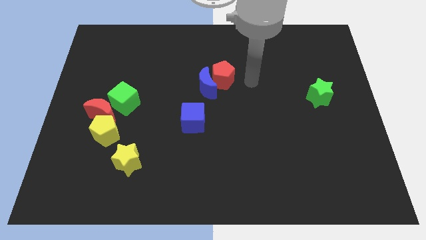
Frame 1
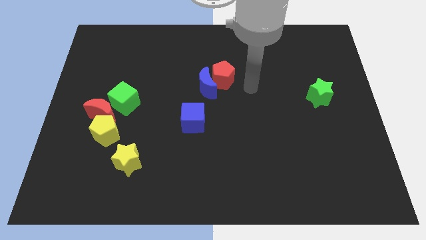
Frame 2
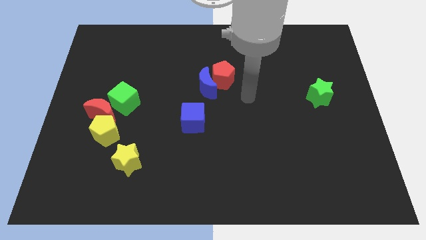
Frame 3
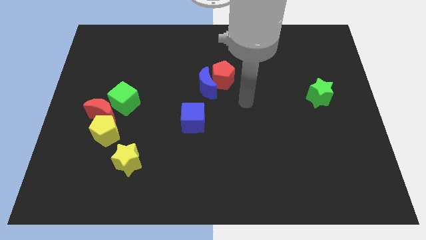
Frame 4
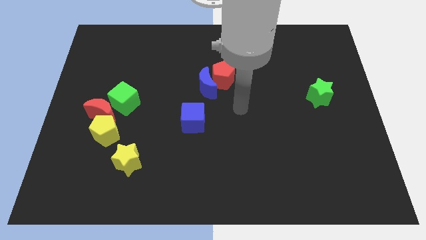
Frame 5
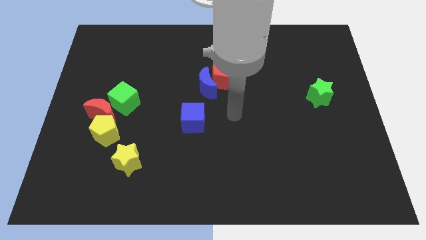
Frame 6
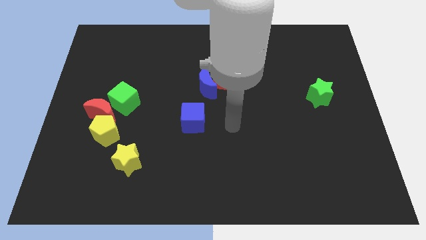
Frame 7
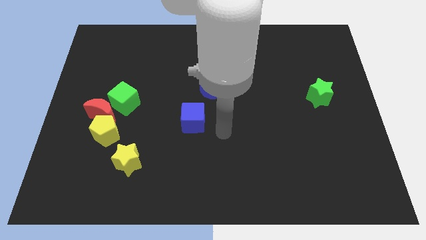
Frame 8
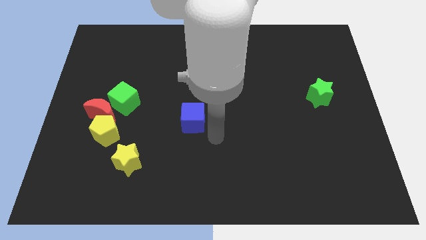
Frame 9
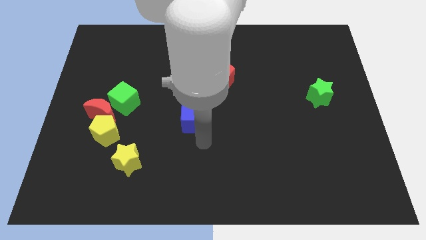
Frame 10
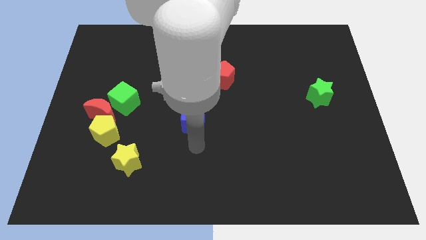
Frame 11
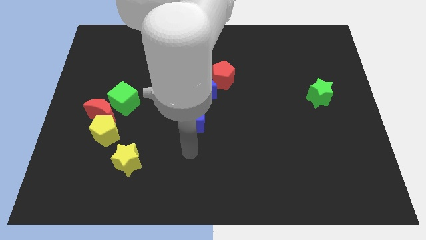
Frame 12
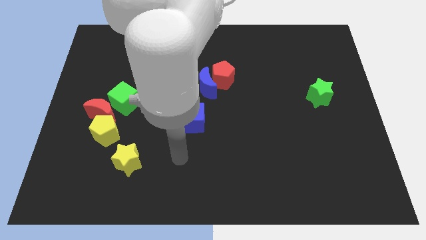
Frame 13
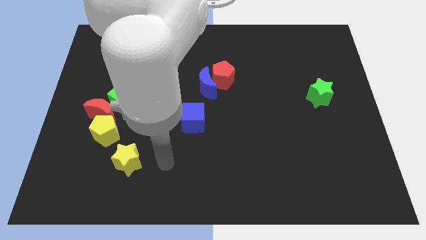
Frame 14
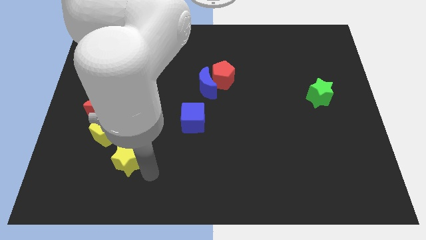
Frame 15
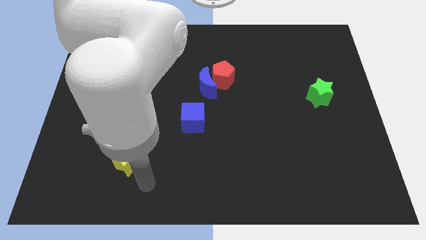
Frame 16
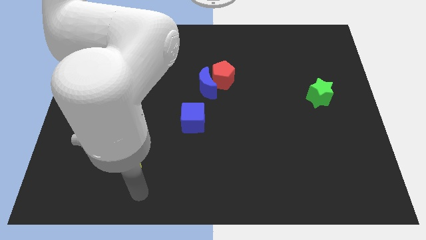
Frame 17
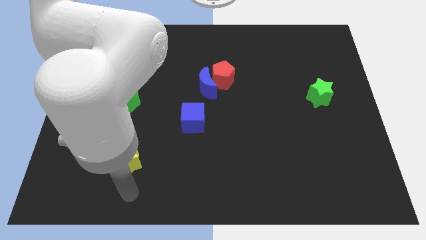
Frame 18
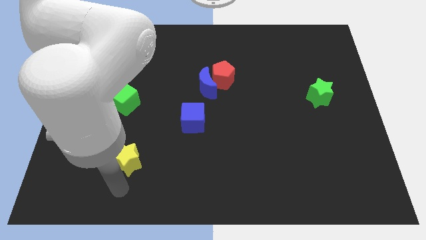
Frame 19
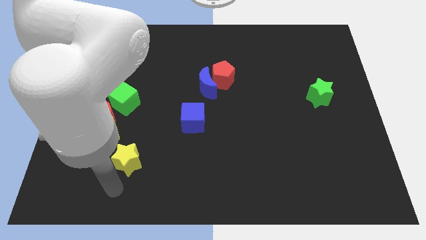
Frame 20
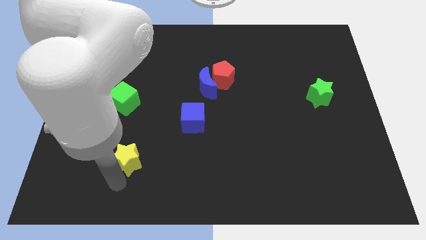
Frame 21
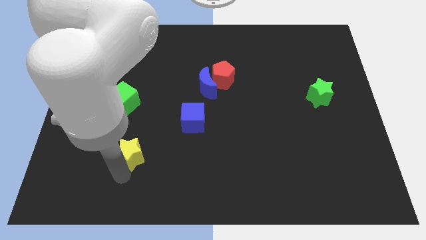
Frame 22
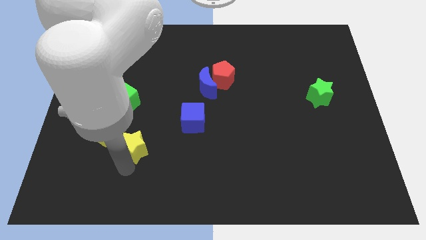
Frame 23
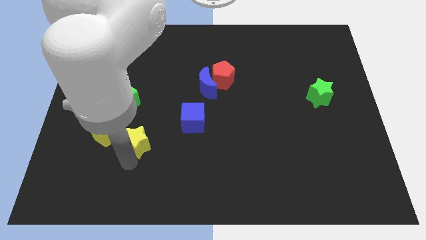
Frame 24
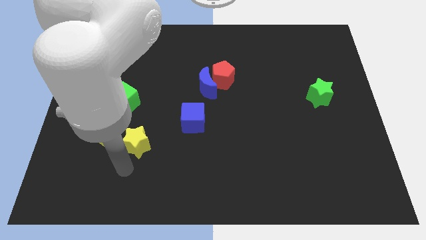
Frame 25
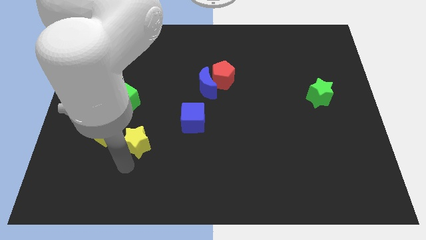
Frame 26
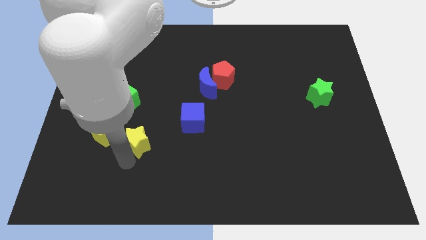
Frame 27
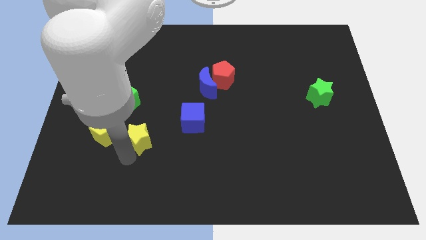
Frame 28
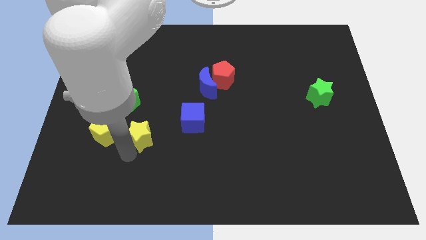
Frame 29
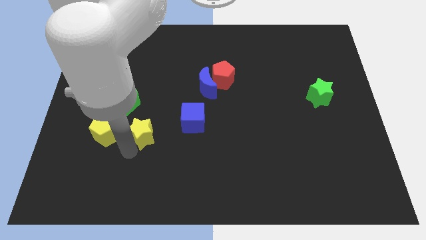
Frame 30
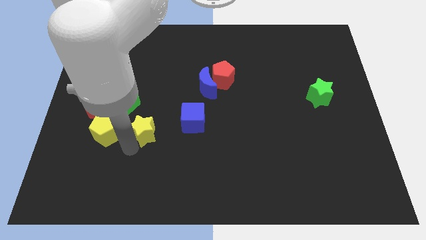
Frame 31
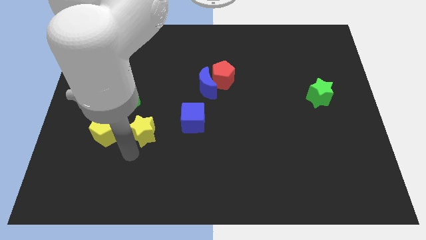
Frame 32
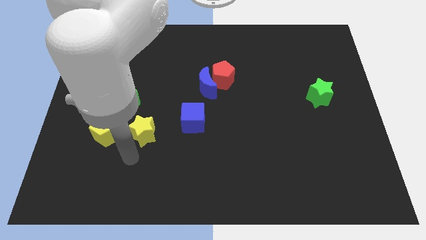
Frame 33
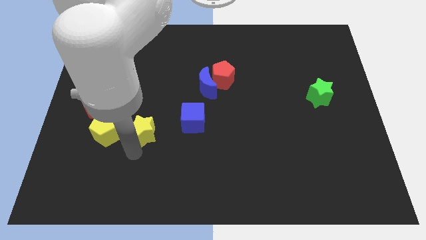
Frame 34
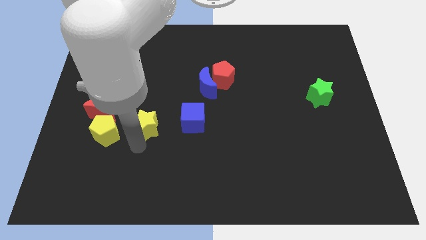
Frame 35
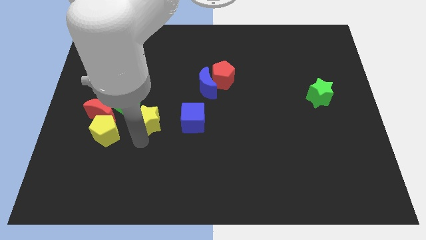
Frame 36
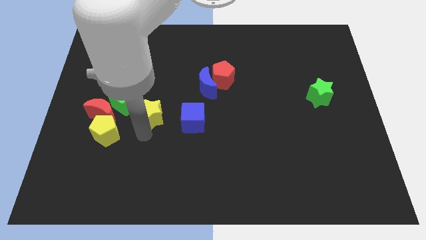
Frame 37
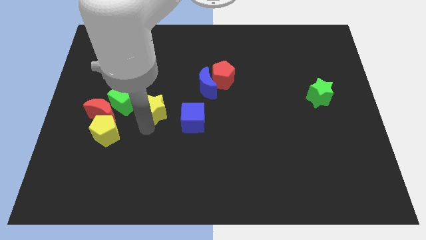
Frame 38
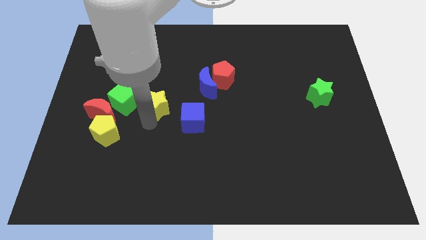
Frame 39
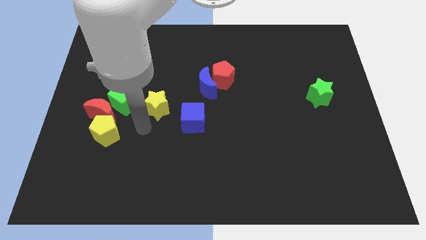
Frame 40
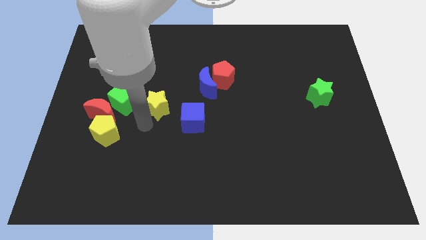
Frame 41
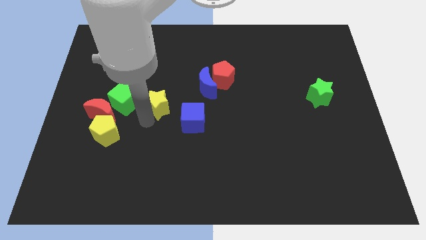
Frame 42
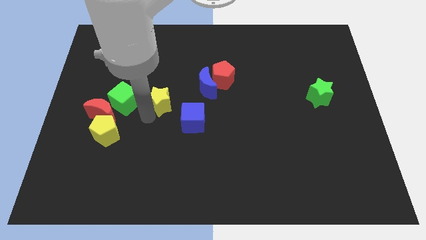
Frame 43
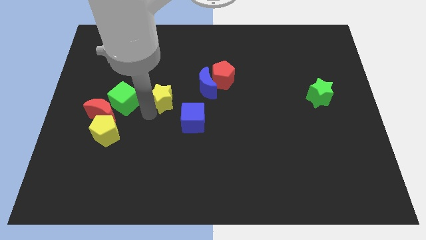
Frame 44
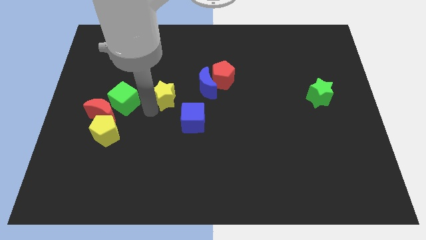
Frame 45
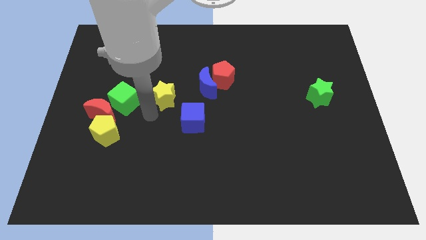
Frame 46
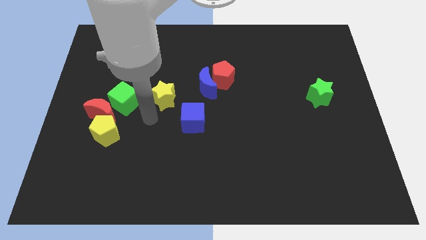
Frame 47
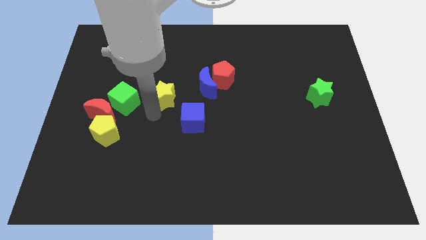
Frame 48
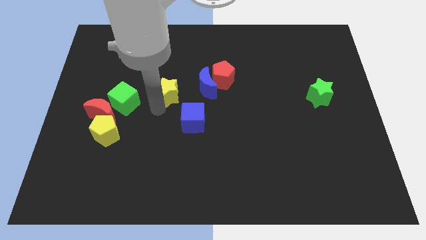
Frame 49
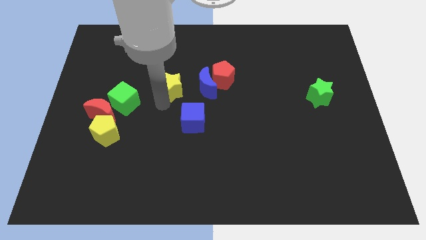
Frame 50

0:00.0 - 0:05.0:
slide the yellow star to the left side of the red pentagon

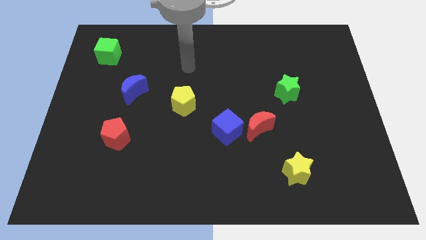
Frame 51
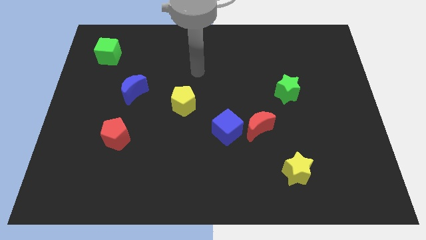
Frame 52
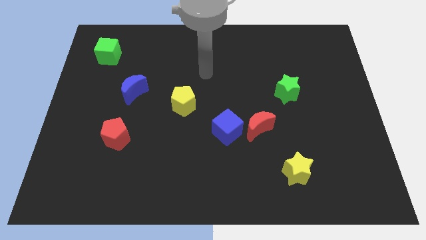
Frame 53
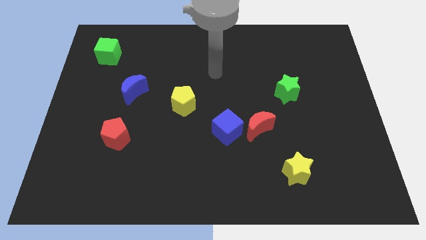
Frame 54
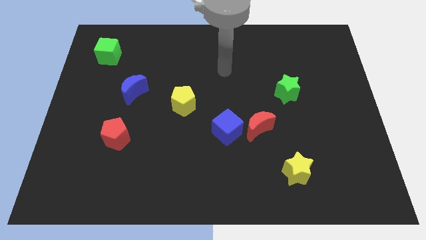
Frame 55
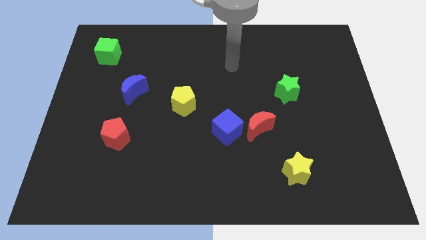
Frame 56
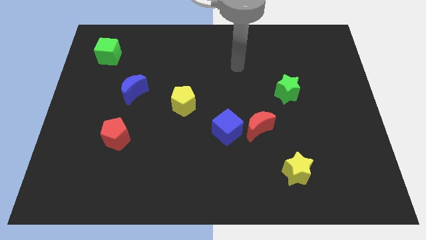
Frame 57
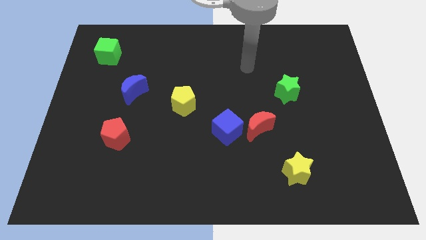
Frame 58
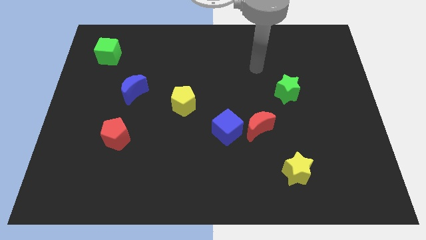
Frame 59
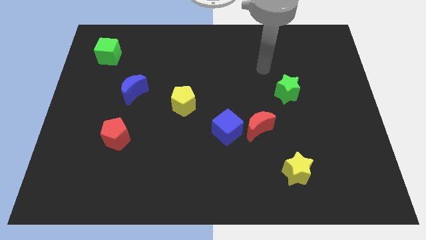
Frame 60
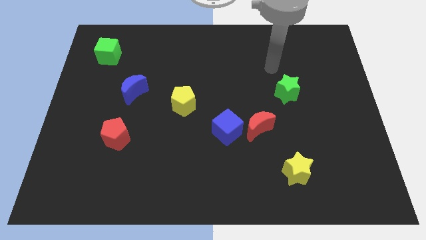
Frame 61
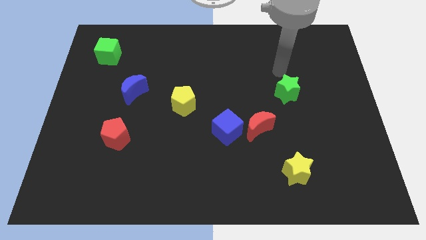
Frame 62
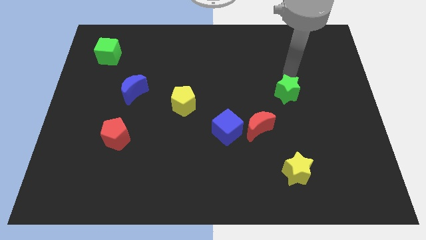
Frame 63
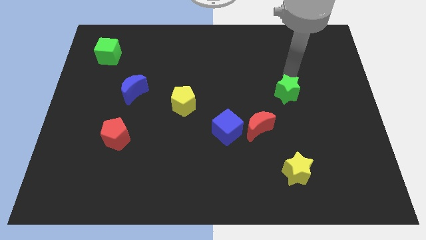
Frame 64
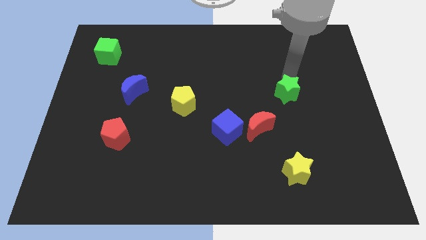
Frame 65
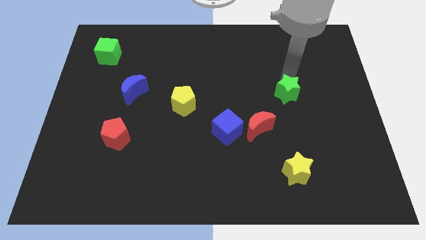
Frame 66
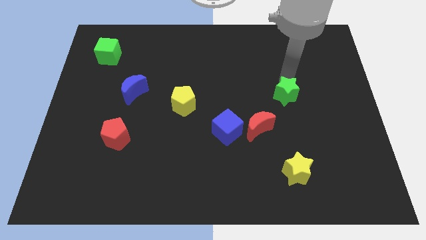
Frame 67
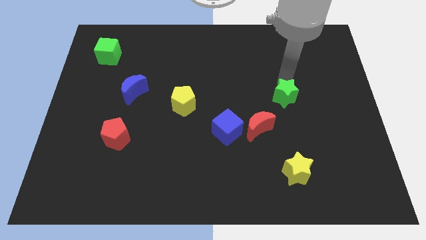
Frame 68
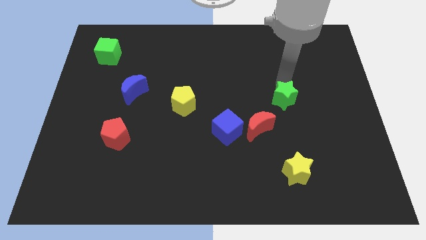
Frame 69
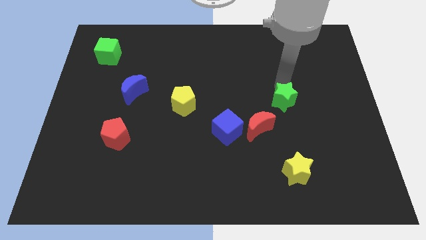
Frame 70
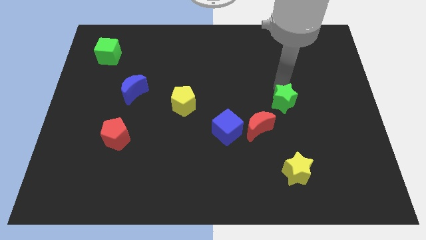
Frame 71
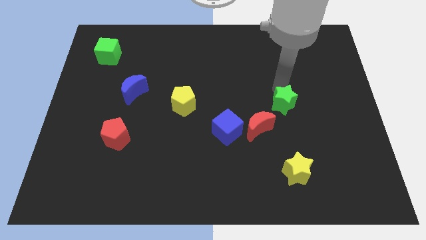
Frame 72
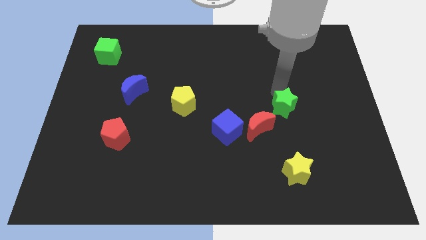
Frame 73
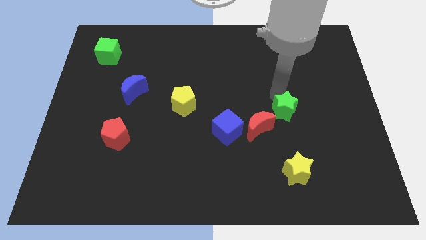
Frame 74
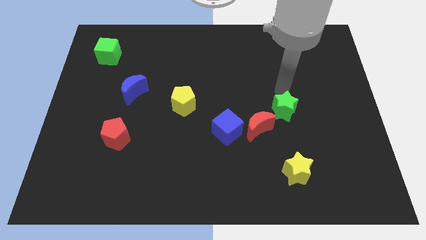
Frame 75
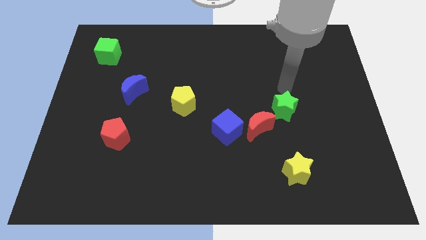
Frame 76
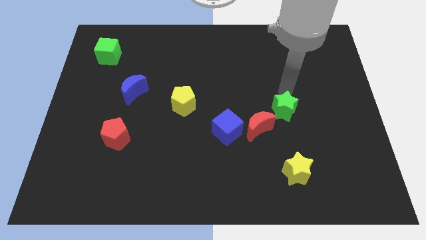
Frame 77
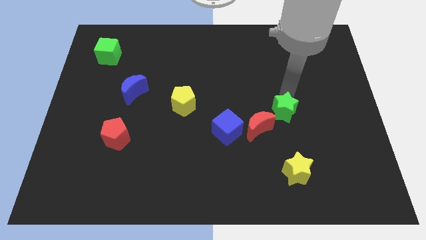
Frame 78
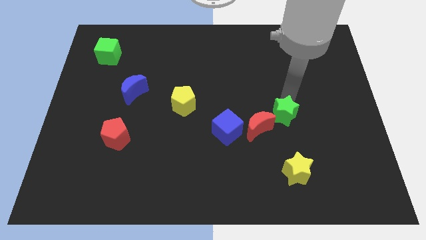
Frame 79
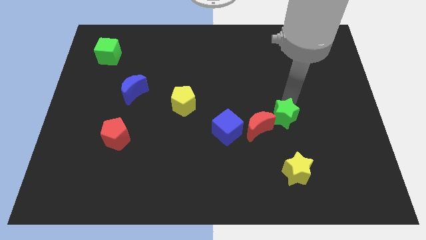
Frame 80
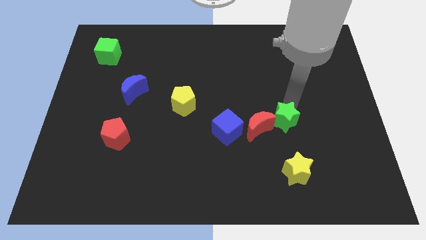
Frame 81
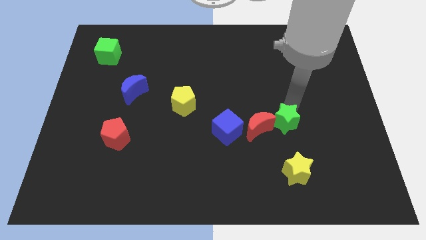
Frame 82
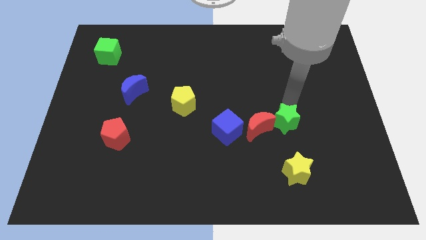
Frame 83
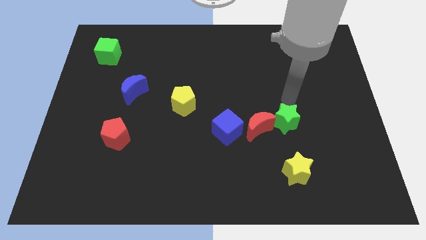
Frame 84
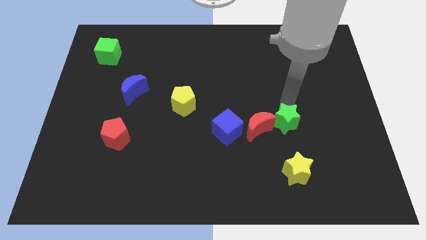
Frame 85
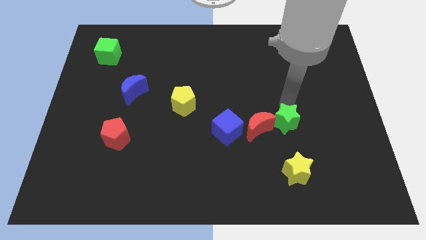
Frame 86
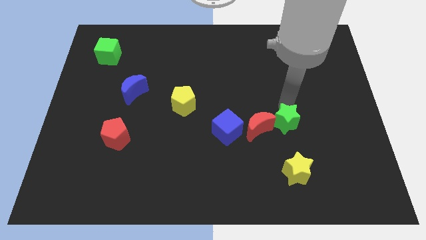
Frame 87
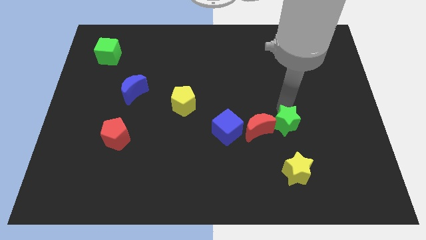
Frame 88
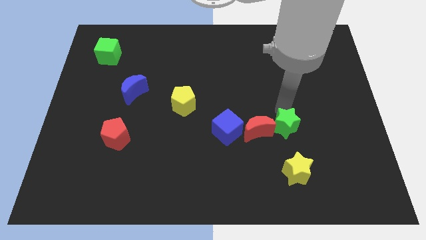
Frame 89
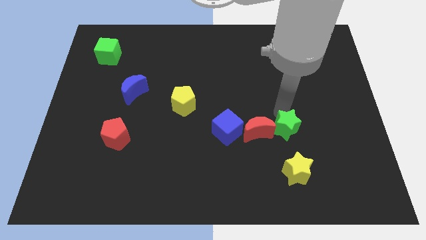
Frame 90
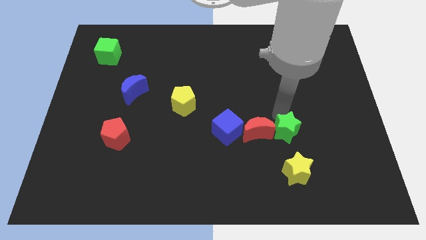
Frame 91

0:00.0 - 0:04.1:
move the green star diagonally down and to the right of the red moon
